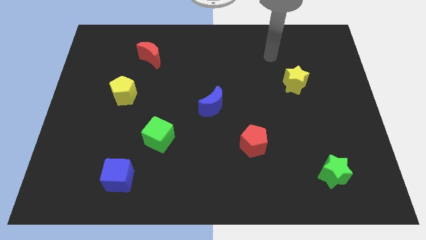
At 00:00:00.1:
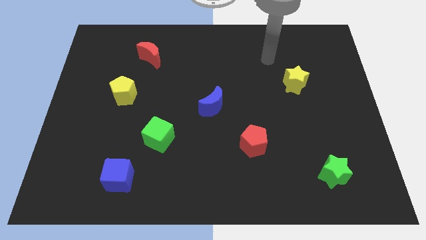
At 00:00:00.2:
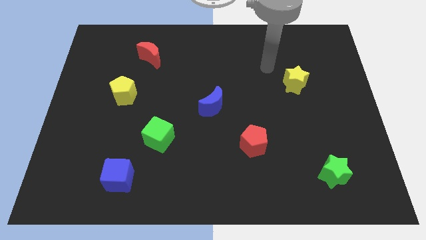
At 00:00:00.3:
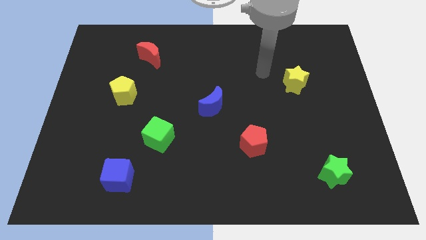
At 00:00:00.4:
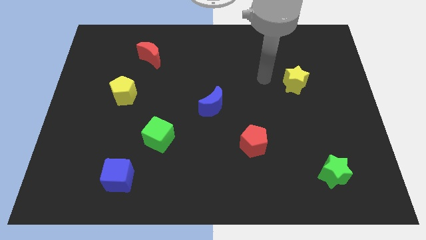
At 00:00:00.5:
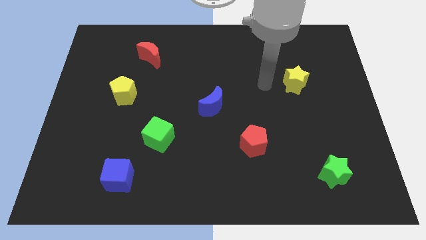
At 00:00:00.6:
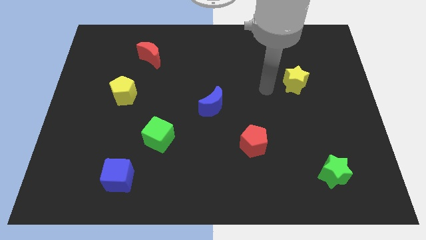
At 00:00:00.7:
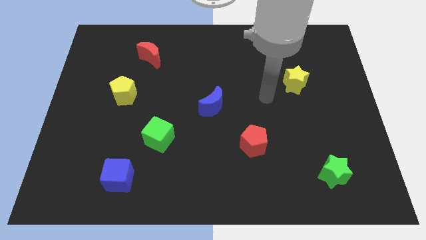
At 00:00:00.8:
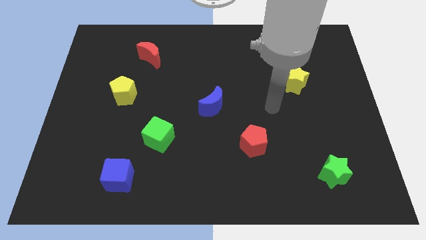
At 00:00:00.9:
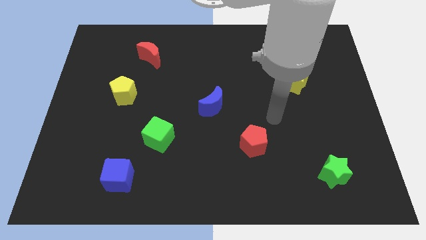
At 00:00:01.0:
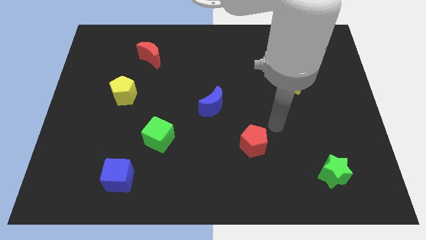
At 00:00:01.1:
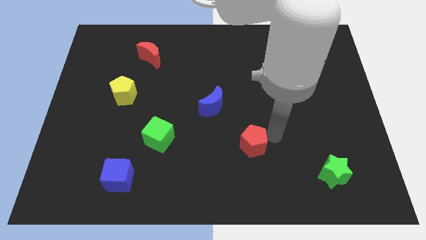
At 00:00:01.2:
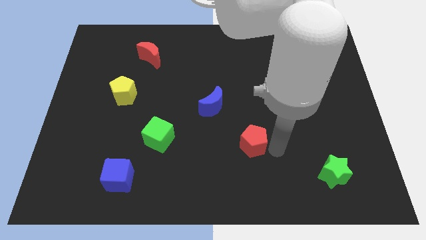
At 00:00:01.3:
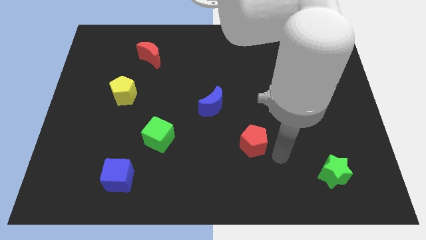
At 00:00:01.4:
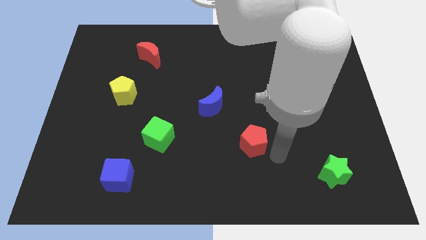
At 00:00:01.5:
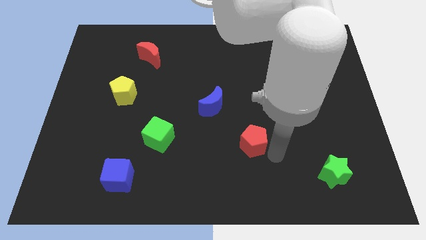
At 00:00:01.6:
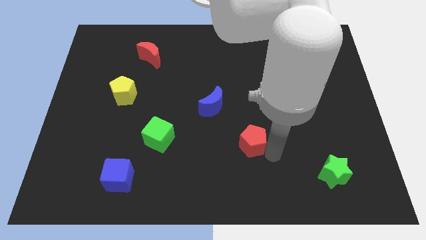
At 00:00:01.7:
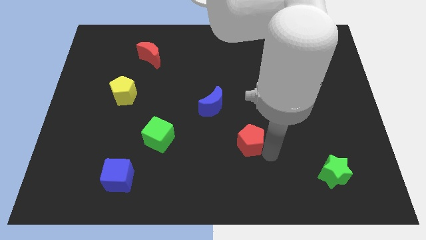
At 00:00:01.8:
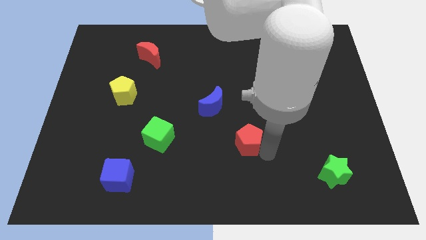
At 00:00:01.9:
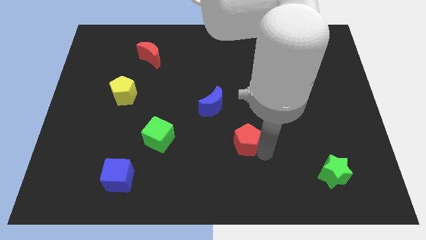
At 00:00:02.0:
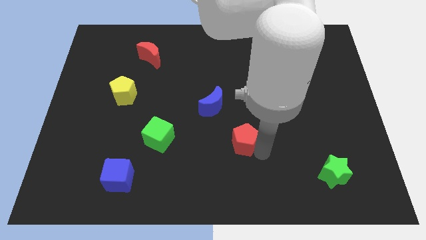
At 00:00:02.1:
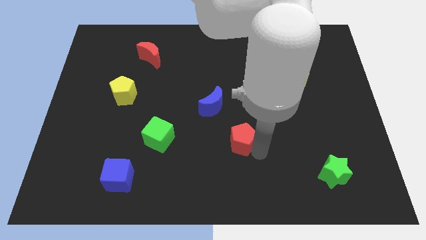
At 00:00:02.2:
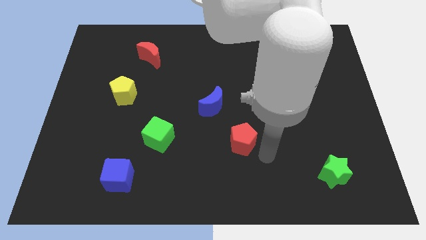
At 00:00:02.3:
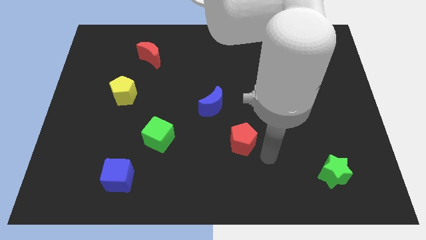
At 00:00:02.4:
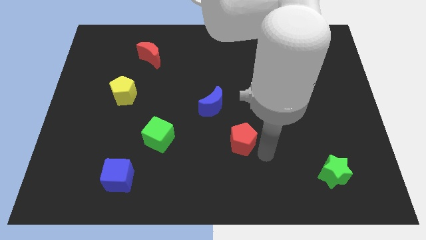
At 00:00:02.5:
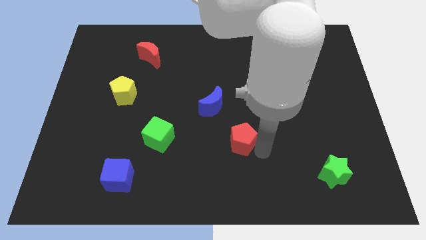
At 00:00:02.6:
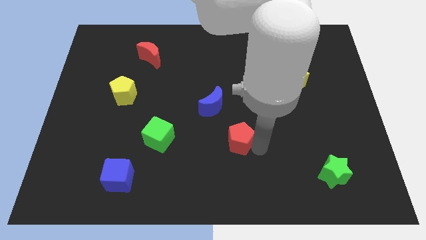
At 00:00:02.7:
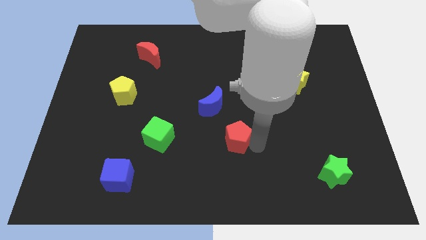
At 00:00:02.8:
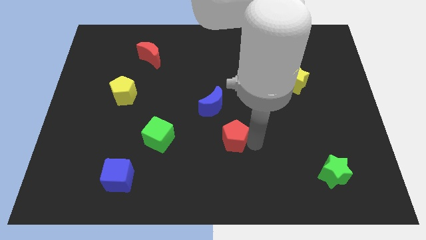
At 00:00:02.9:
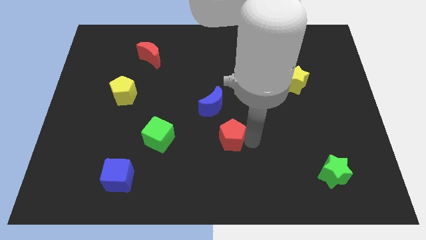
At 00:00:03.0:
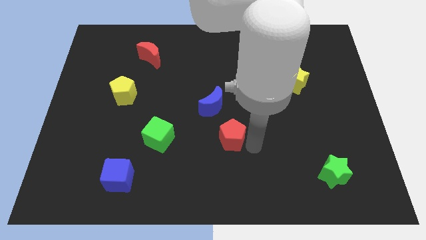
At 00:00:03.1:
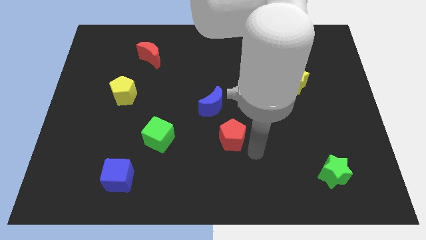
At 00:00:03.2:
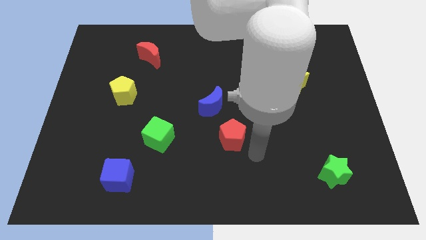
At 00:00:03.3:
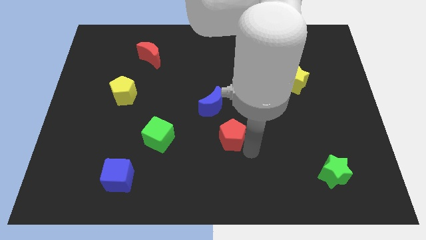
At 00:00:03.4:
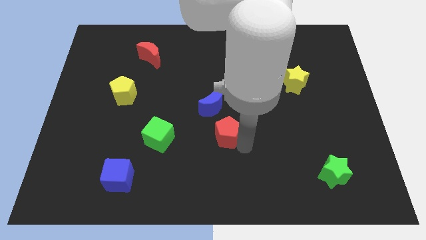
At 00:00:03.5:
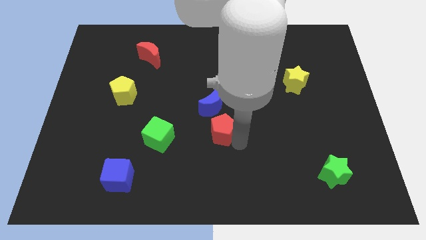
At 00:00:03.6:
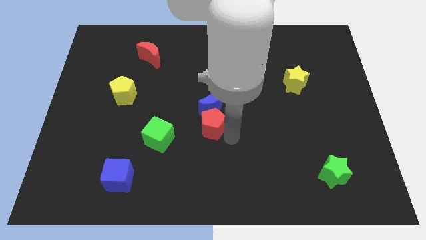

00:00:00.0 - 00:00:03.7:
move the red pentagon slightly diagonally upwards and left

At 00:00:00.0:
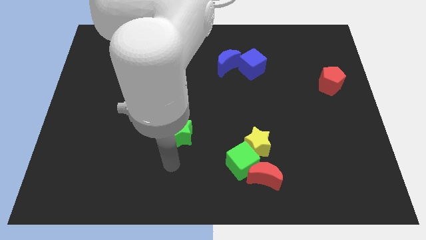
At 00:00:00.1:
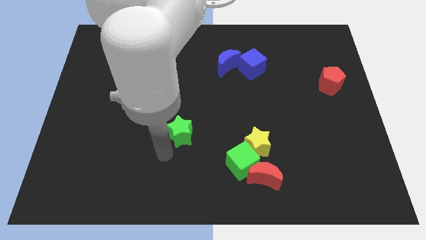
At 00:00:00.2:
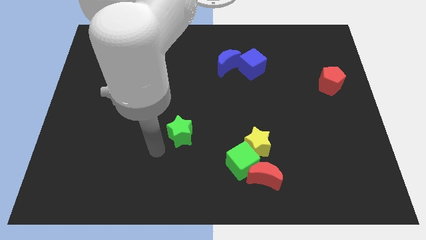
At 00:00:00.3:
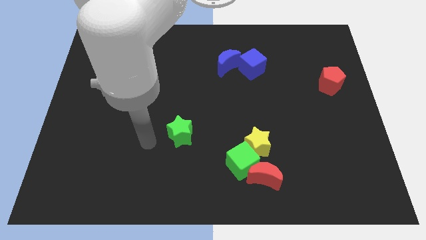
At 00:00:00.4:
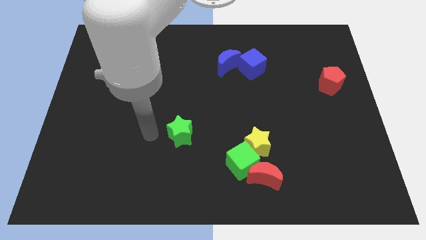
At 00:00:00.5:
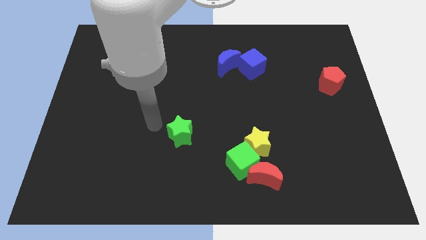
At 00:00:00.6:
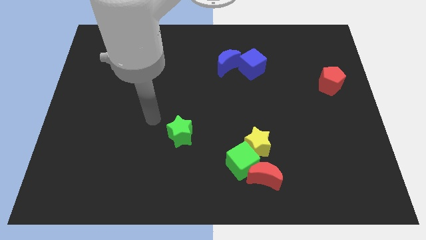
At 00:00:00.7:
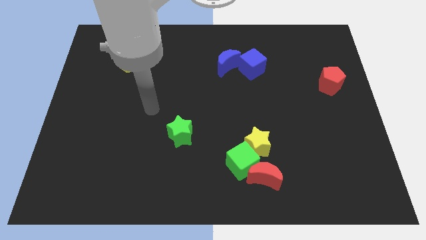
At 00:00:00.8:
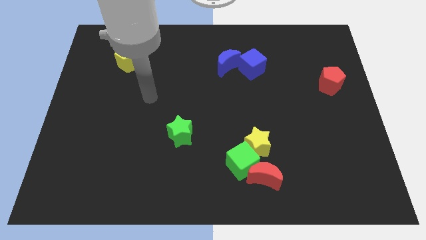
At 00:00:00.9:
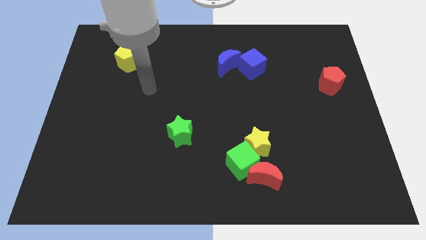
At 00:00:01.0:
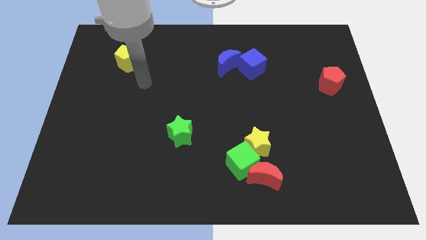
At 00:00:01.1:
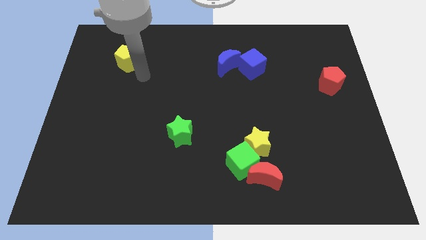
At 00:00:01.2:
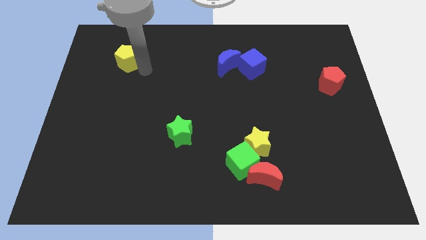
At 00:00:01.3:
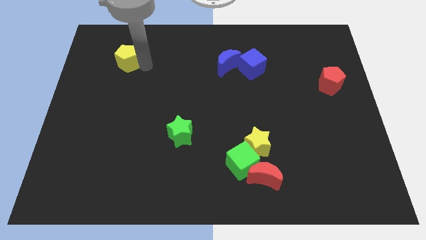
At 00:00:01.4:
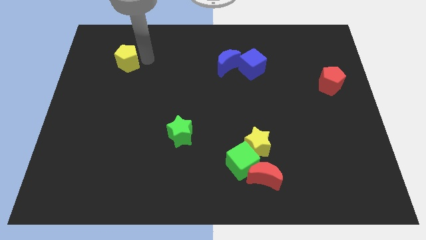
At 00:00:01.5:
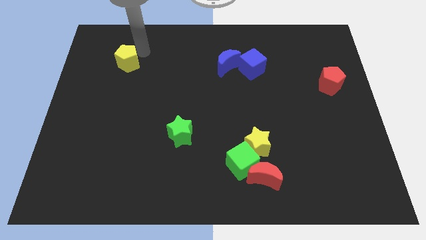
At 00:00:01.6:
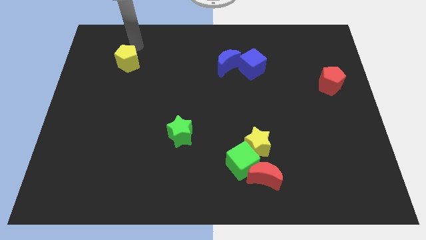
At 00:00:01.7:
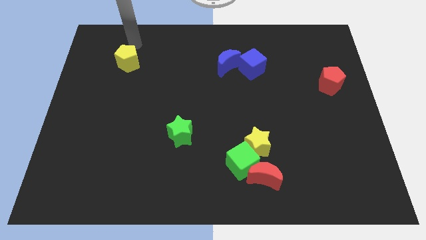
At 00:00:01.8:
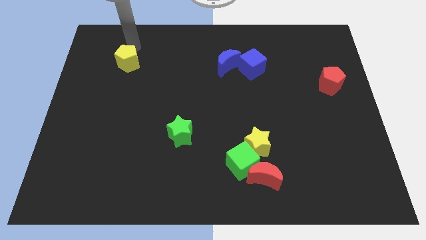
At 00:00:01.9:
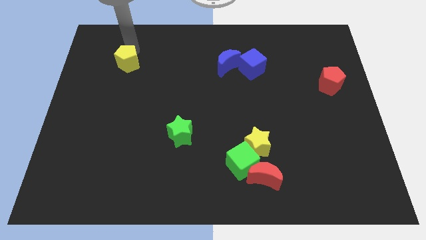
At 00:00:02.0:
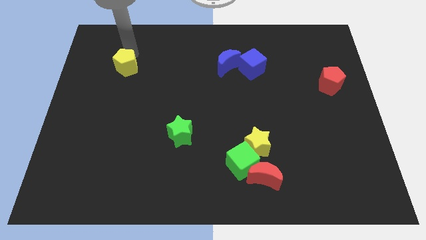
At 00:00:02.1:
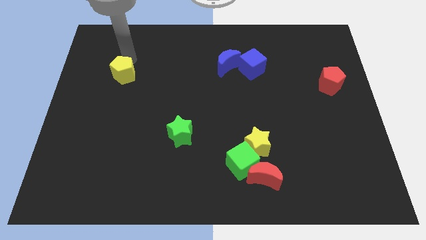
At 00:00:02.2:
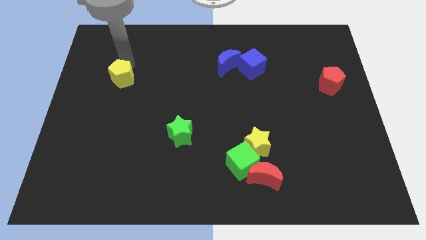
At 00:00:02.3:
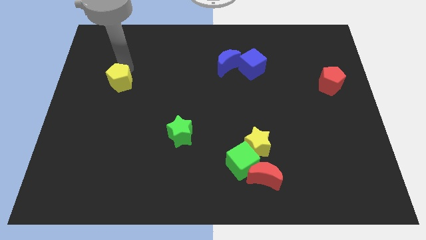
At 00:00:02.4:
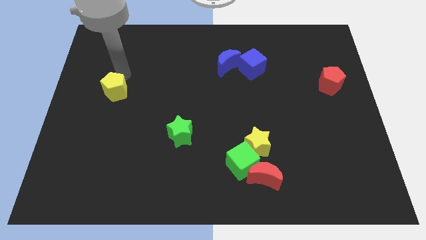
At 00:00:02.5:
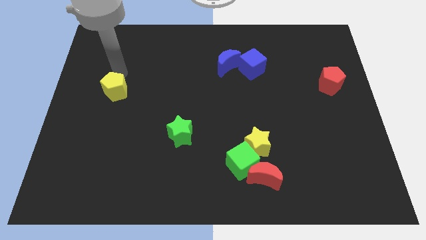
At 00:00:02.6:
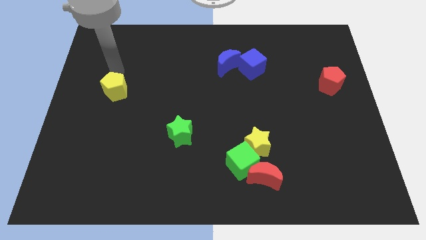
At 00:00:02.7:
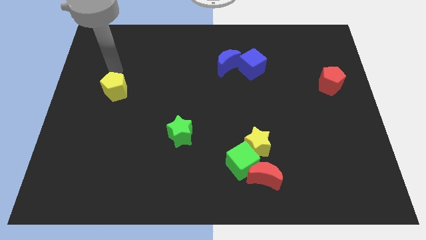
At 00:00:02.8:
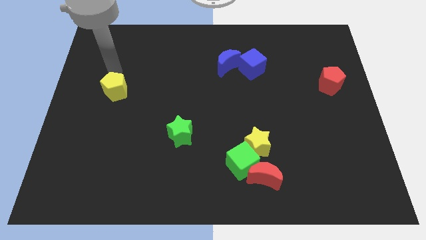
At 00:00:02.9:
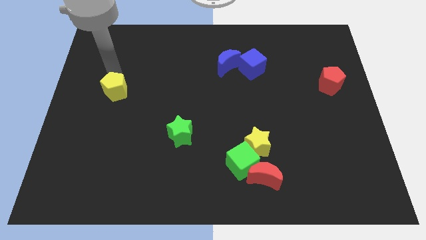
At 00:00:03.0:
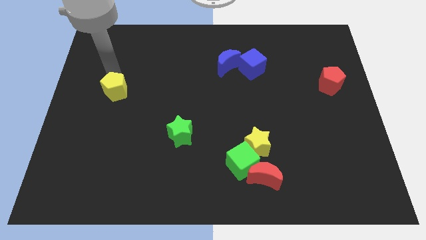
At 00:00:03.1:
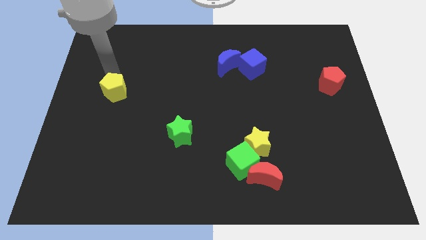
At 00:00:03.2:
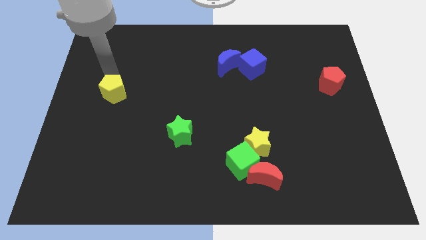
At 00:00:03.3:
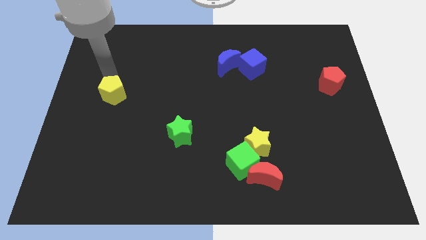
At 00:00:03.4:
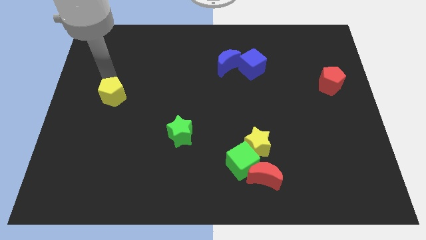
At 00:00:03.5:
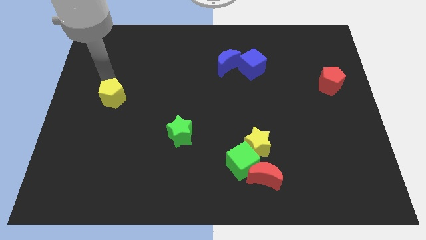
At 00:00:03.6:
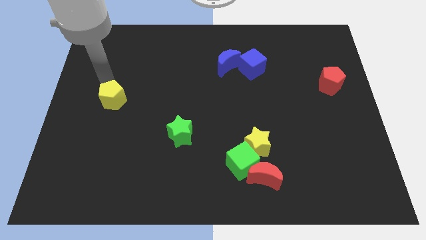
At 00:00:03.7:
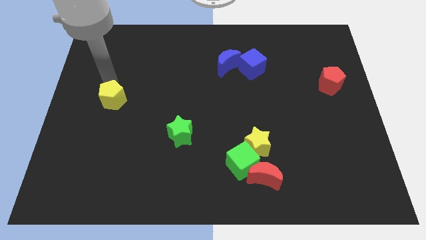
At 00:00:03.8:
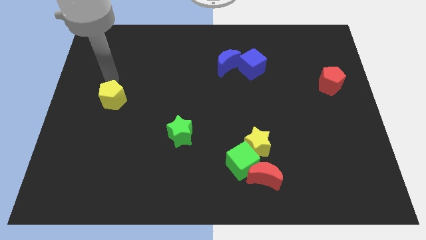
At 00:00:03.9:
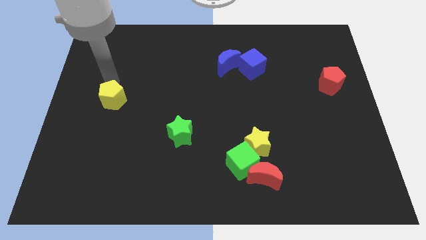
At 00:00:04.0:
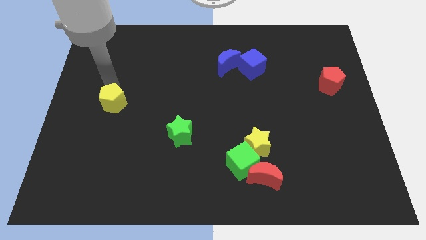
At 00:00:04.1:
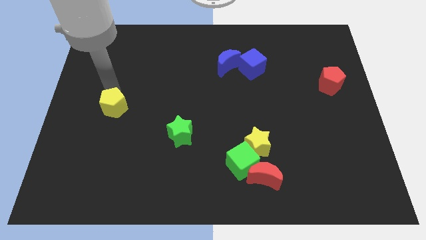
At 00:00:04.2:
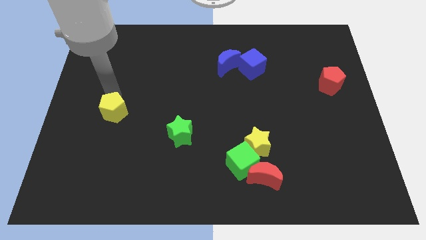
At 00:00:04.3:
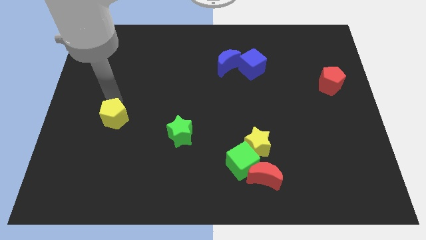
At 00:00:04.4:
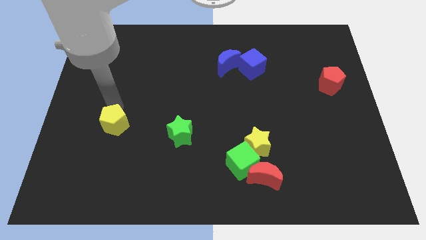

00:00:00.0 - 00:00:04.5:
move the yellow pentagon down
